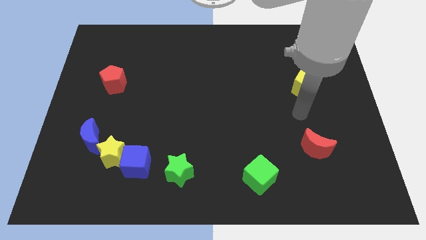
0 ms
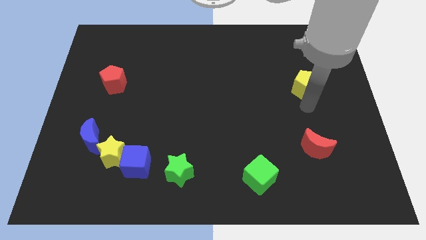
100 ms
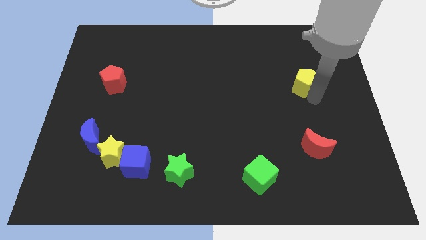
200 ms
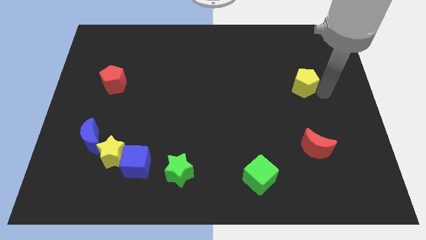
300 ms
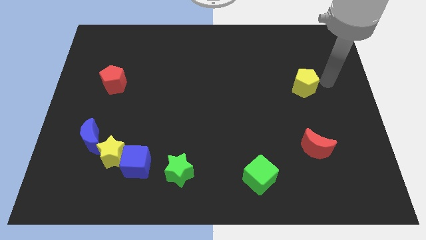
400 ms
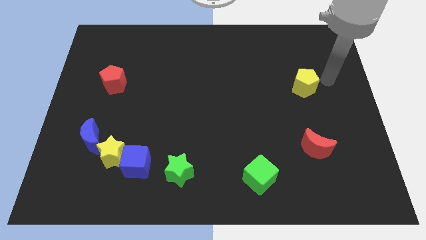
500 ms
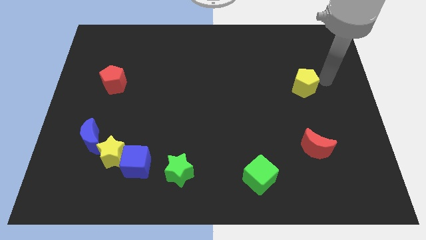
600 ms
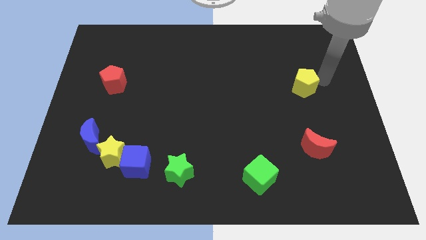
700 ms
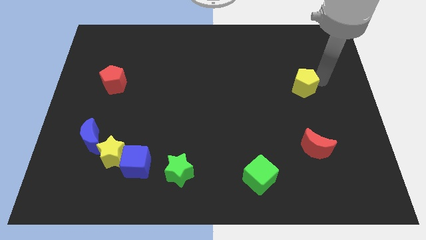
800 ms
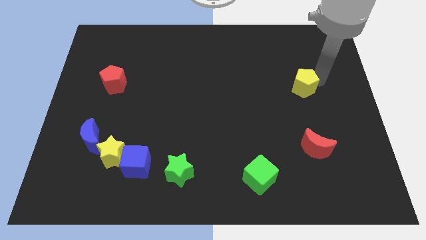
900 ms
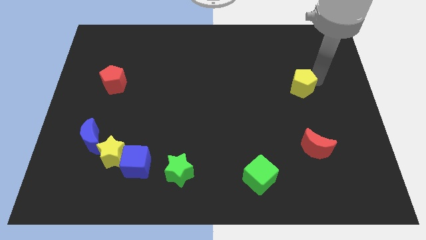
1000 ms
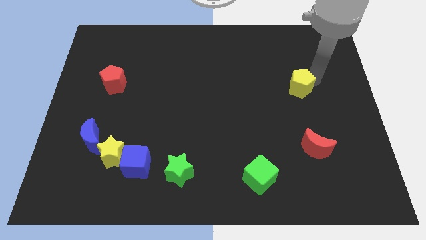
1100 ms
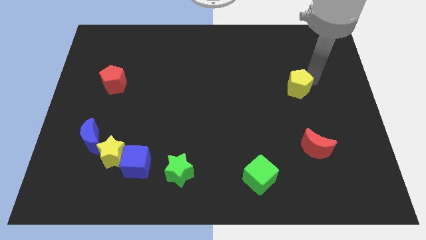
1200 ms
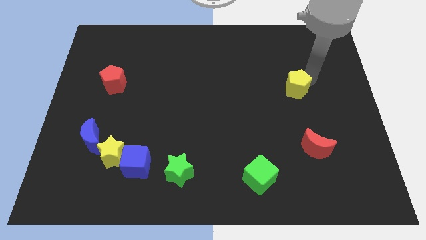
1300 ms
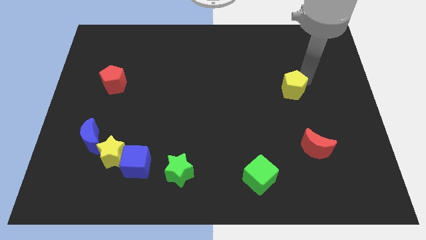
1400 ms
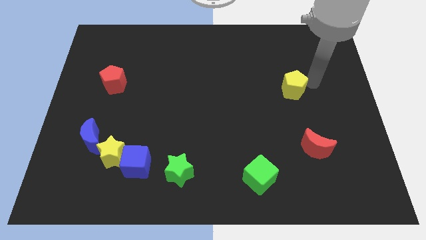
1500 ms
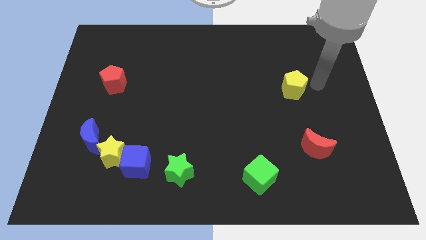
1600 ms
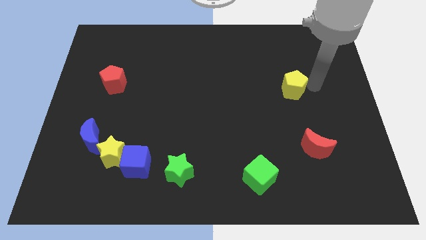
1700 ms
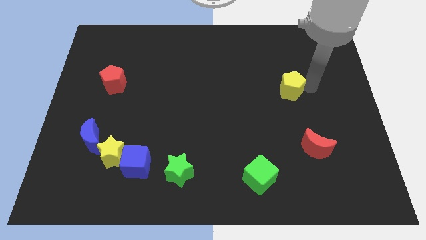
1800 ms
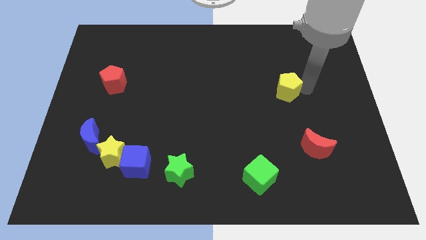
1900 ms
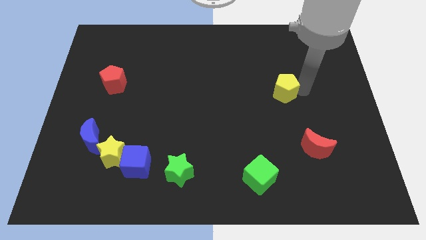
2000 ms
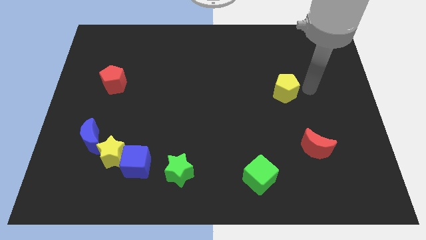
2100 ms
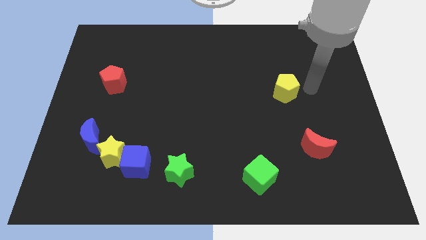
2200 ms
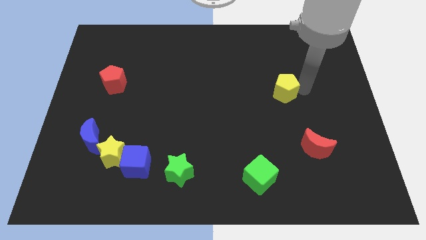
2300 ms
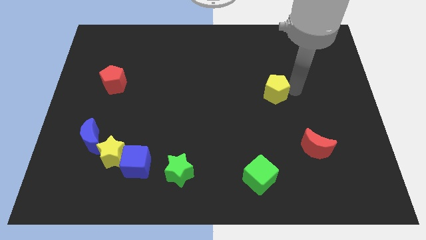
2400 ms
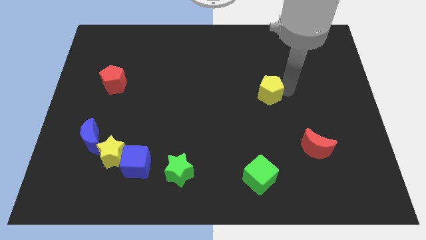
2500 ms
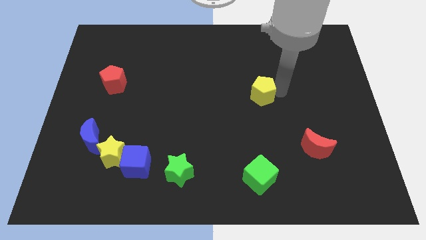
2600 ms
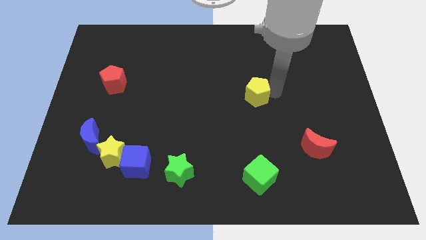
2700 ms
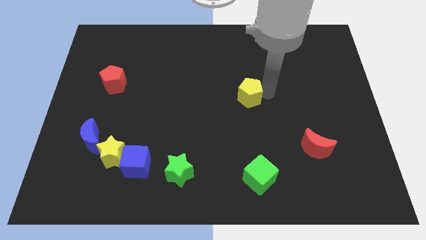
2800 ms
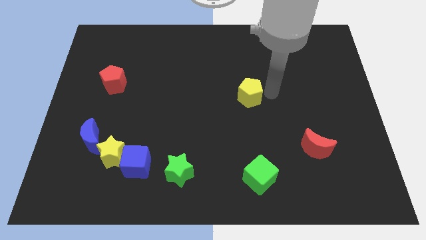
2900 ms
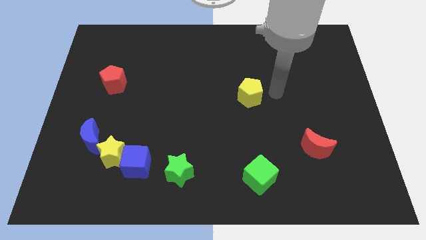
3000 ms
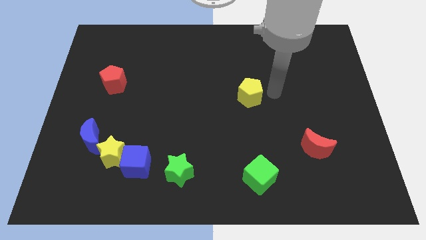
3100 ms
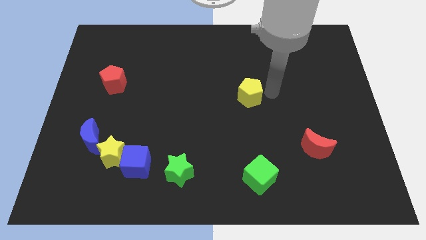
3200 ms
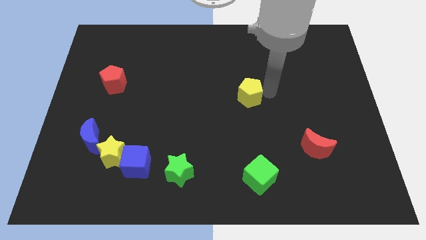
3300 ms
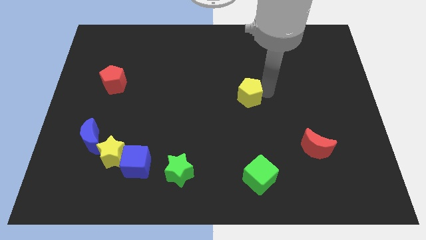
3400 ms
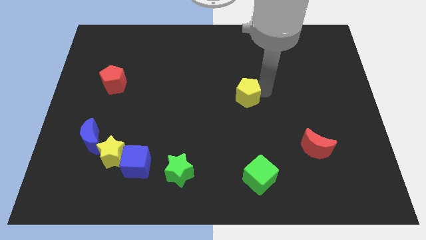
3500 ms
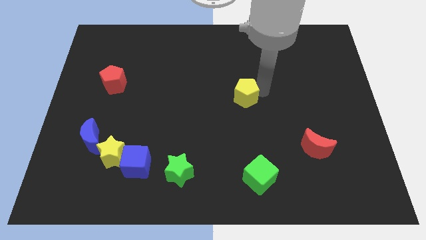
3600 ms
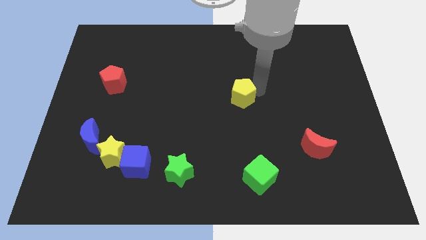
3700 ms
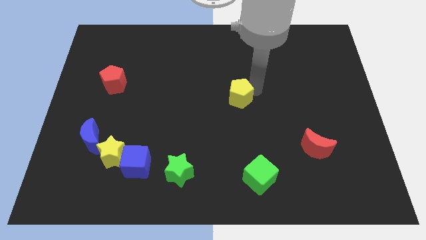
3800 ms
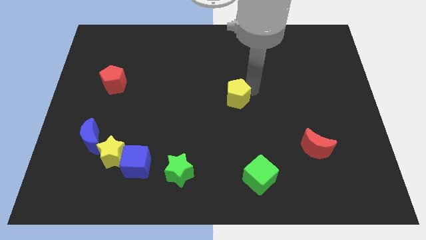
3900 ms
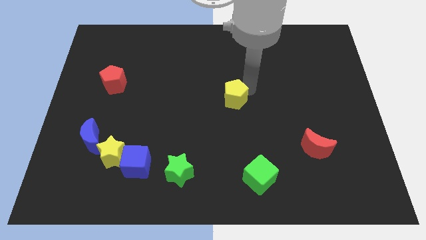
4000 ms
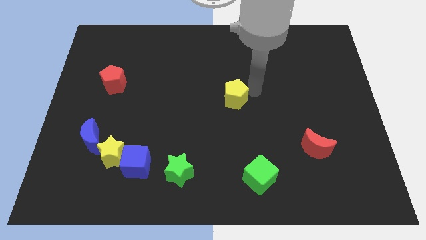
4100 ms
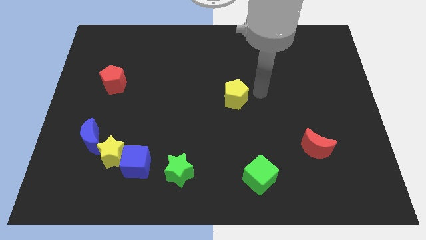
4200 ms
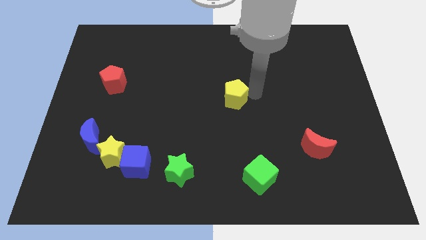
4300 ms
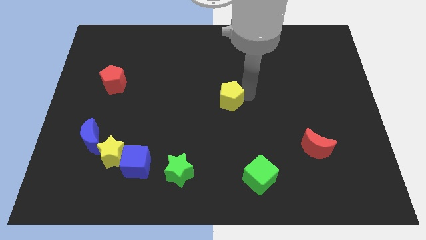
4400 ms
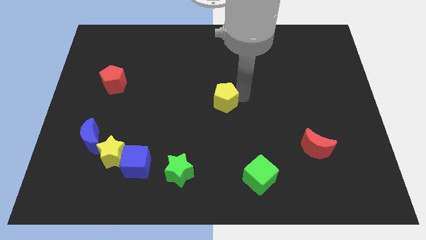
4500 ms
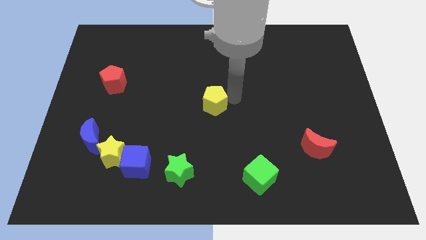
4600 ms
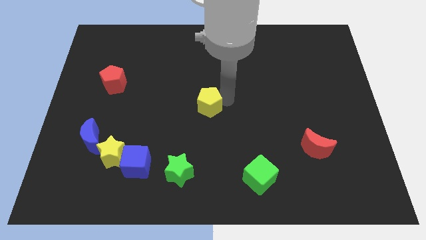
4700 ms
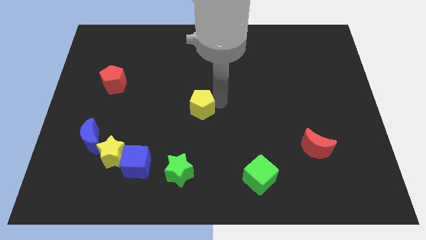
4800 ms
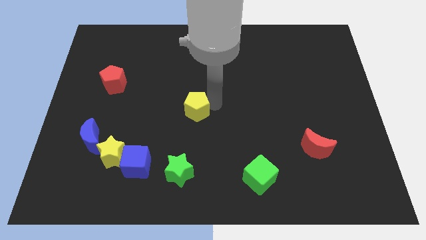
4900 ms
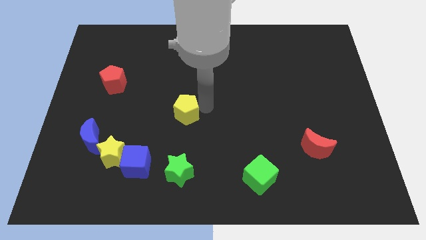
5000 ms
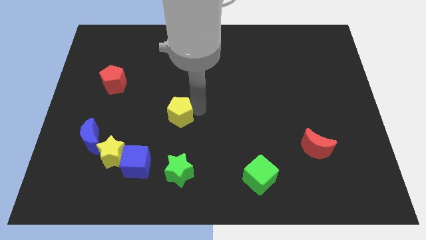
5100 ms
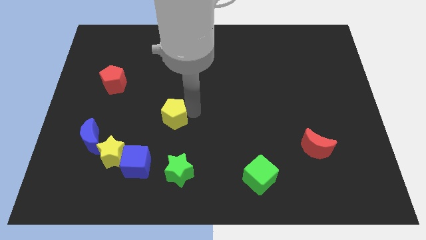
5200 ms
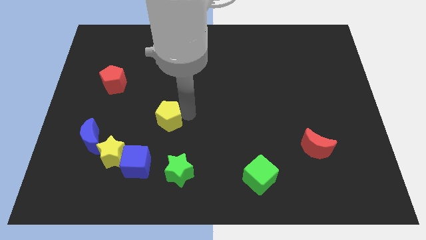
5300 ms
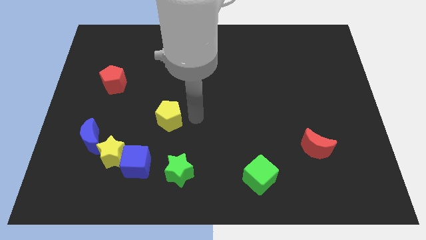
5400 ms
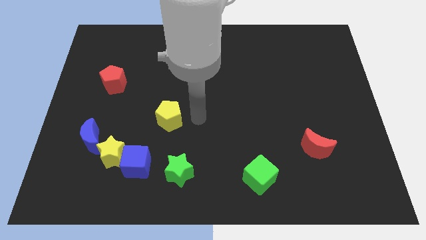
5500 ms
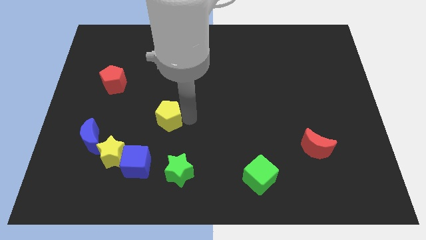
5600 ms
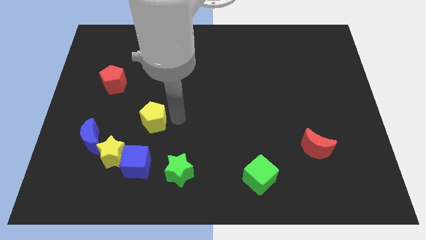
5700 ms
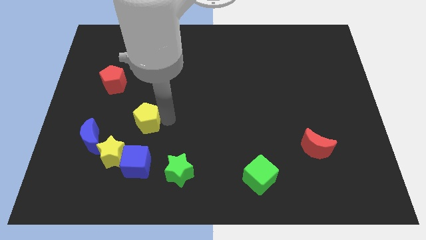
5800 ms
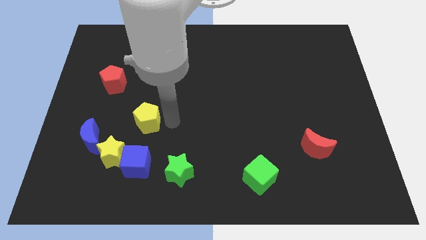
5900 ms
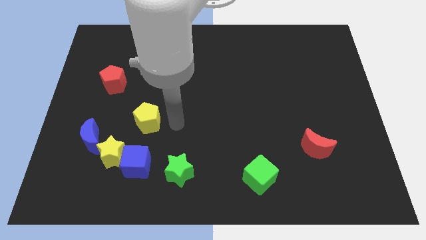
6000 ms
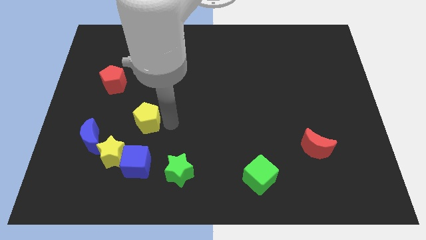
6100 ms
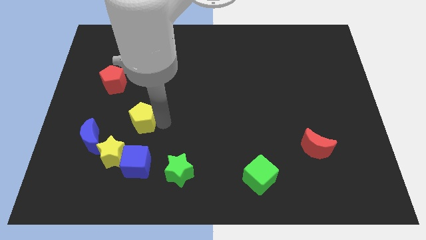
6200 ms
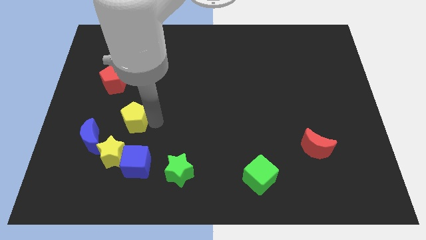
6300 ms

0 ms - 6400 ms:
push the yellow pentagon above the yellow star

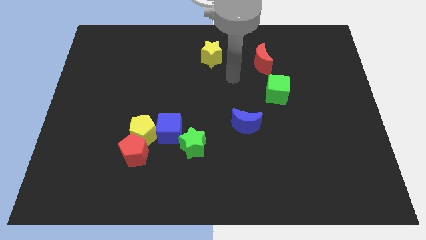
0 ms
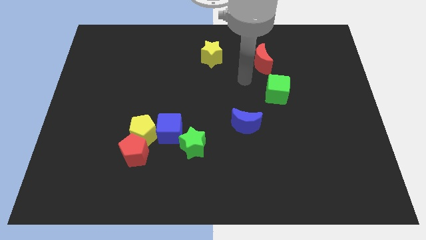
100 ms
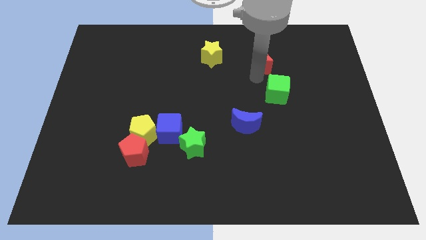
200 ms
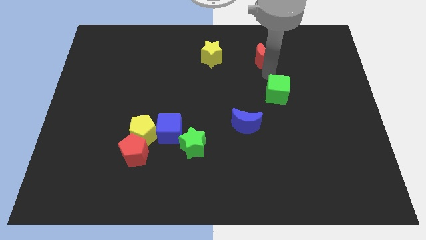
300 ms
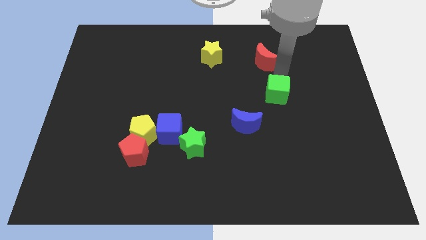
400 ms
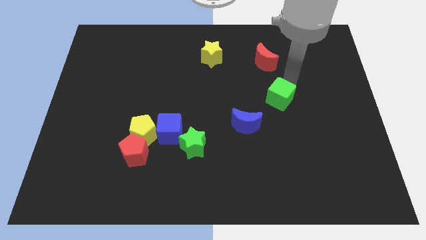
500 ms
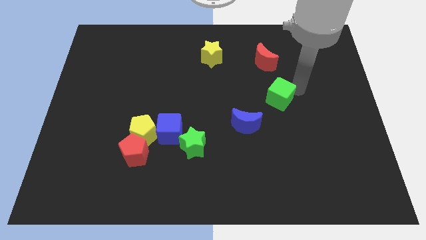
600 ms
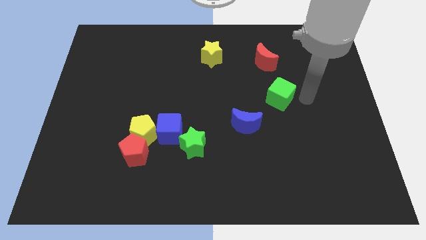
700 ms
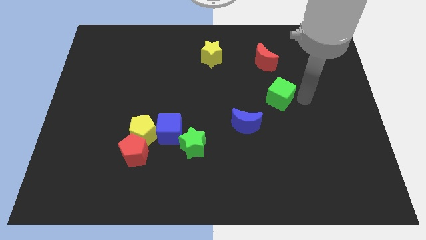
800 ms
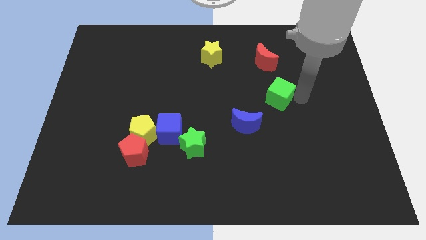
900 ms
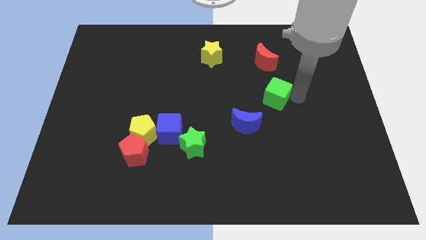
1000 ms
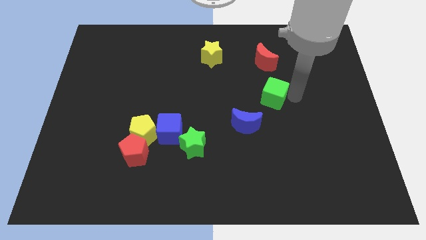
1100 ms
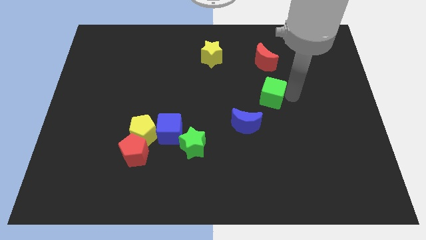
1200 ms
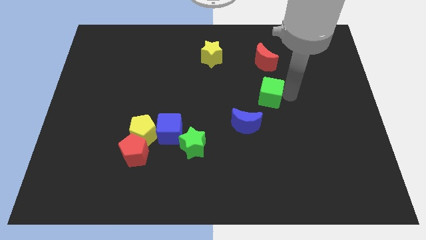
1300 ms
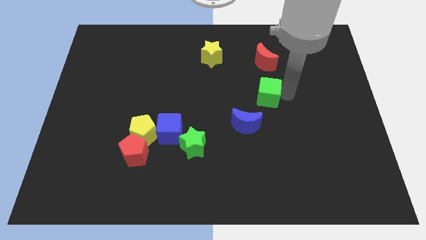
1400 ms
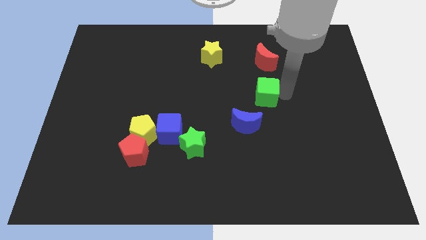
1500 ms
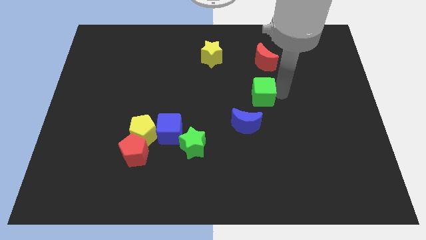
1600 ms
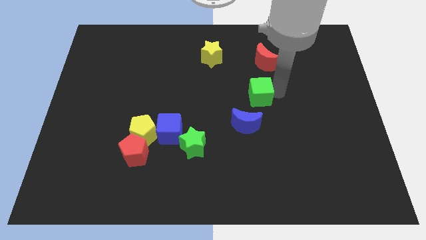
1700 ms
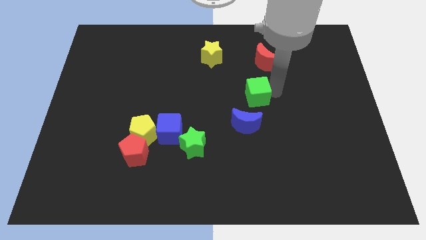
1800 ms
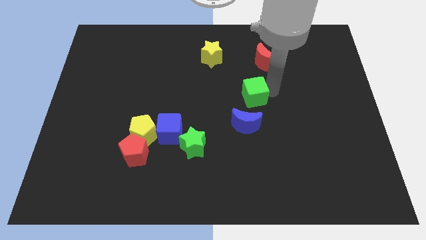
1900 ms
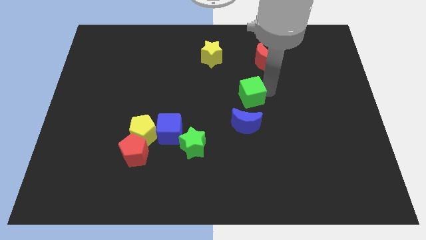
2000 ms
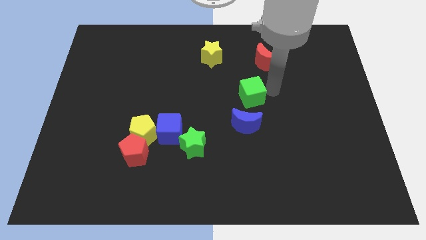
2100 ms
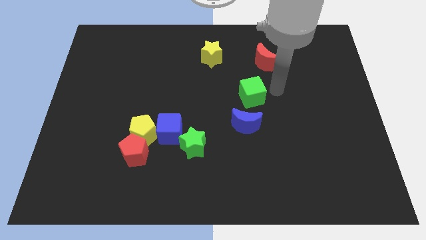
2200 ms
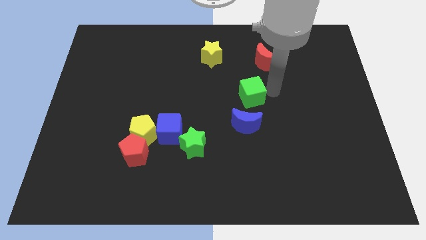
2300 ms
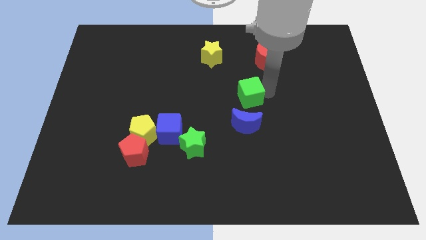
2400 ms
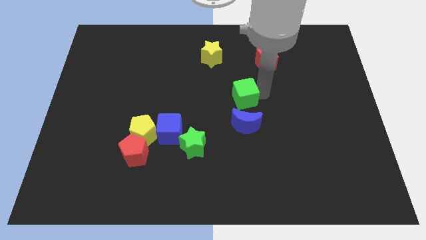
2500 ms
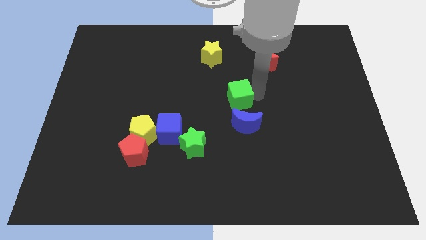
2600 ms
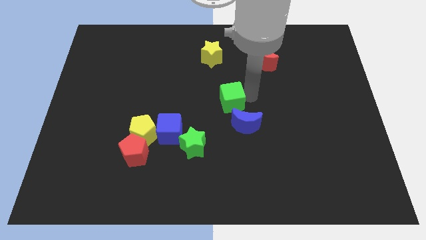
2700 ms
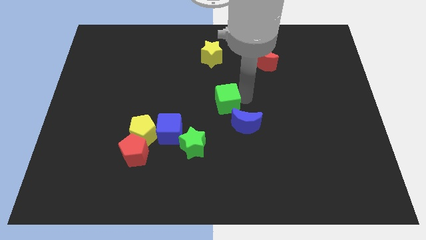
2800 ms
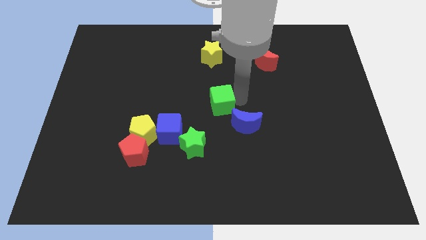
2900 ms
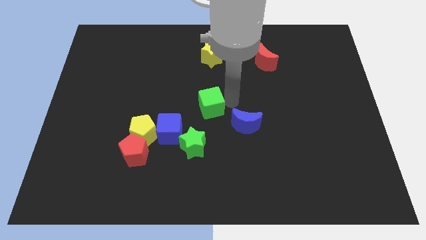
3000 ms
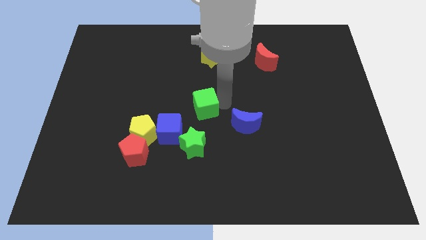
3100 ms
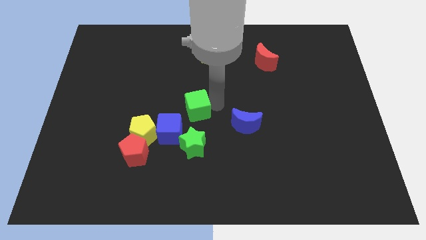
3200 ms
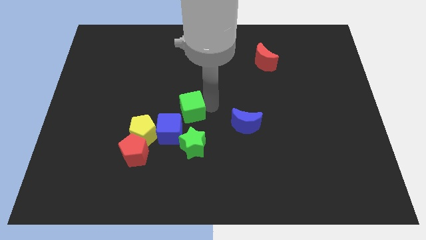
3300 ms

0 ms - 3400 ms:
slide the green cube to the top right side of the yellow pentagon
